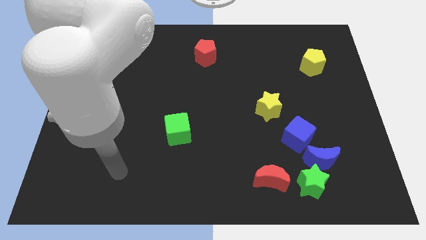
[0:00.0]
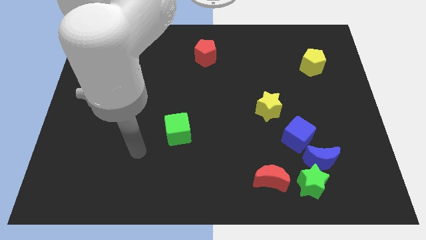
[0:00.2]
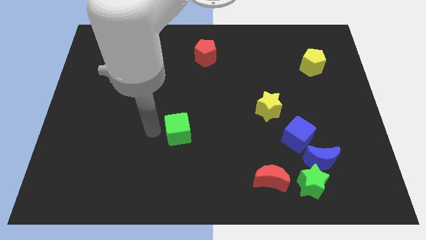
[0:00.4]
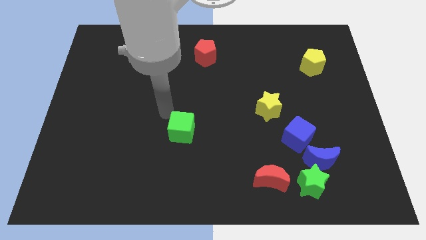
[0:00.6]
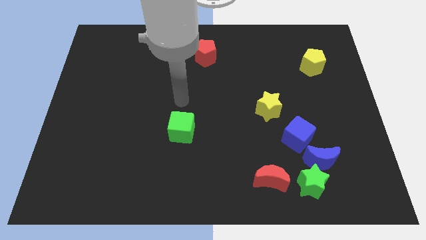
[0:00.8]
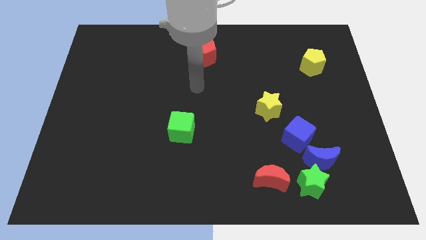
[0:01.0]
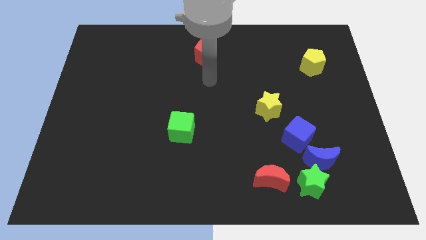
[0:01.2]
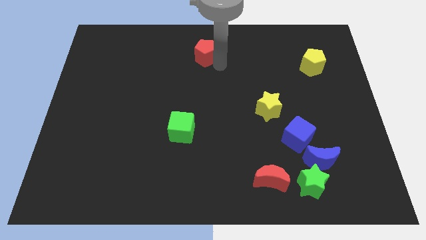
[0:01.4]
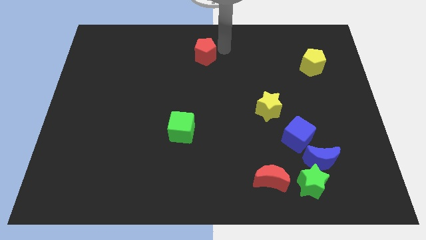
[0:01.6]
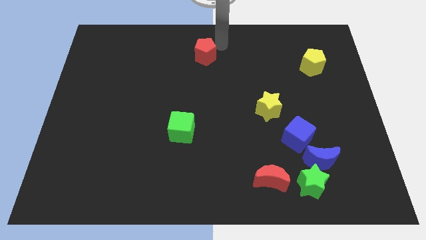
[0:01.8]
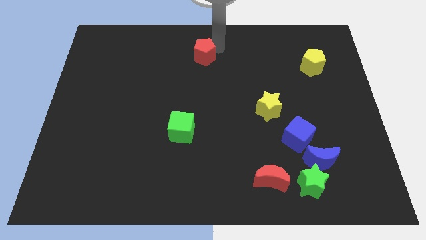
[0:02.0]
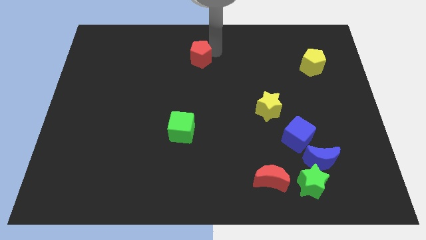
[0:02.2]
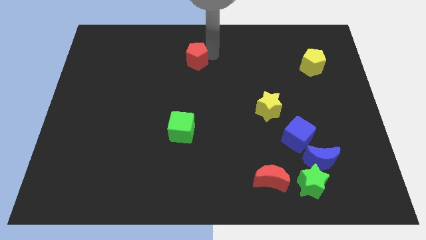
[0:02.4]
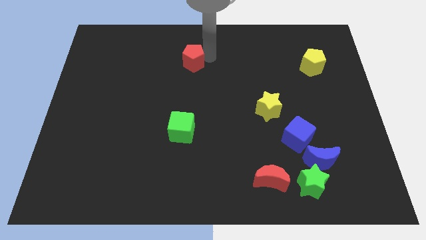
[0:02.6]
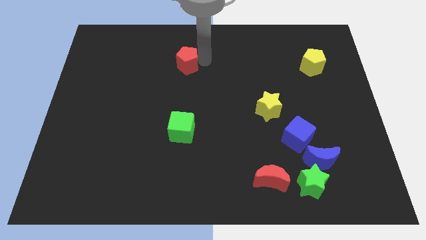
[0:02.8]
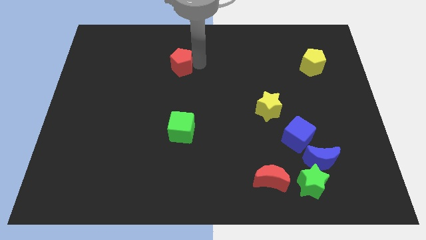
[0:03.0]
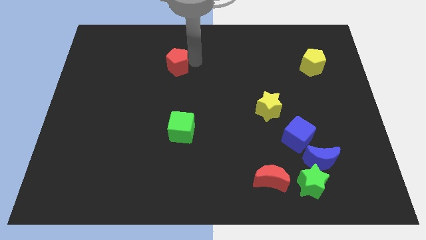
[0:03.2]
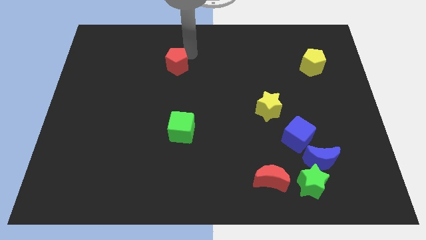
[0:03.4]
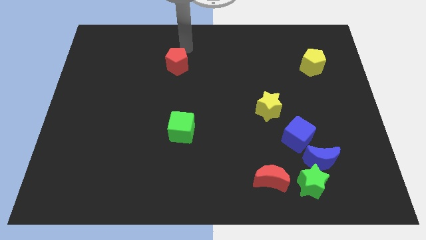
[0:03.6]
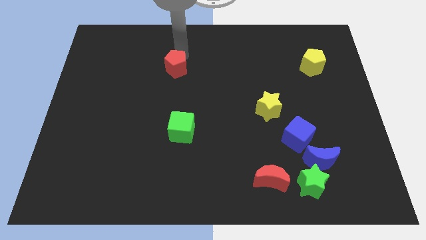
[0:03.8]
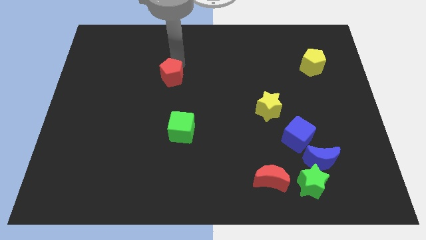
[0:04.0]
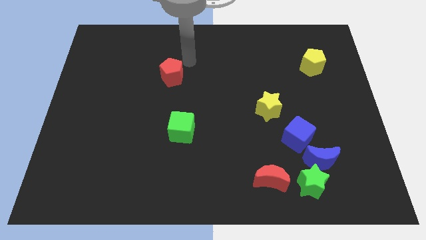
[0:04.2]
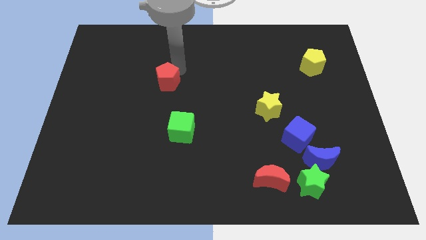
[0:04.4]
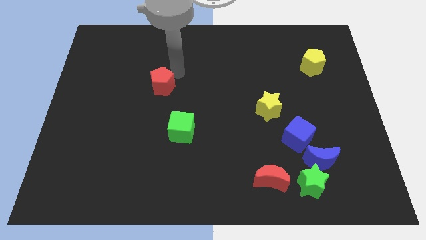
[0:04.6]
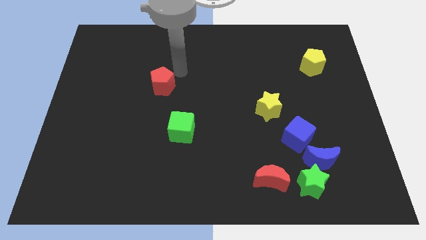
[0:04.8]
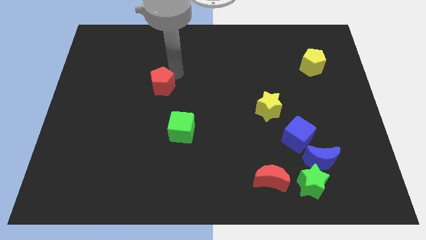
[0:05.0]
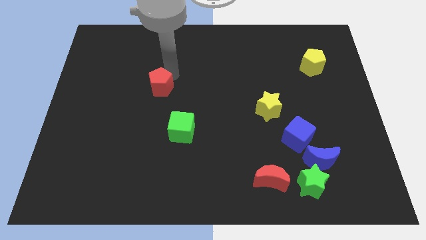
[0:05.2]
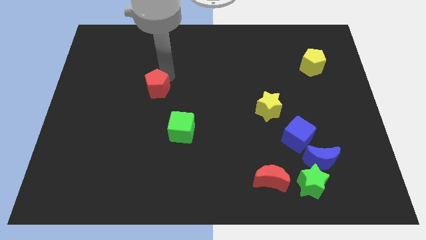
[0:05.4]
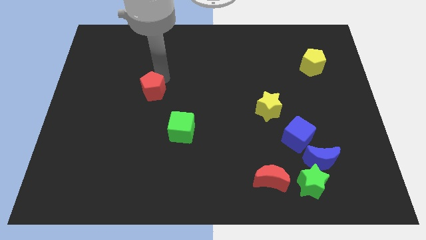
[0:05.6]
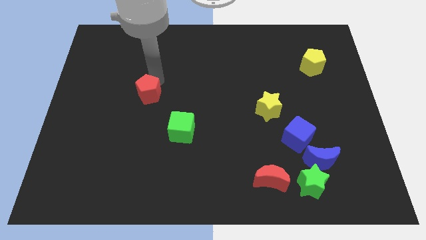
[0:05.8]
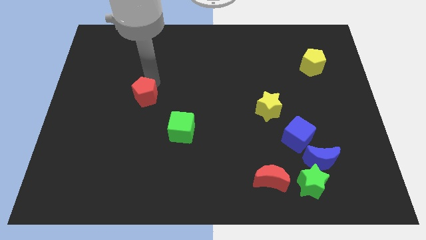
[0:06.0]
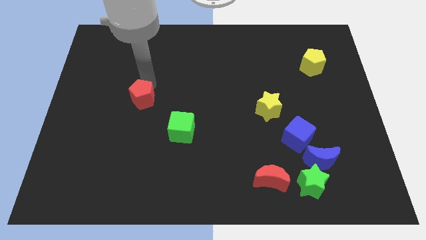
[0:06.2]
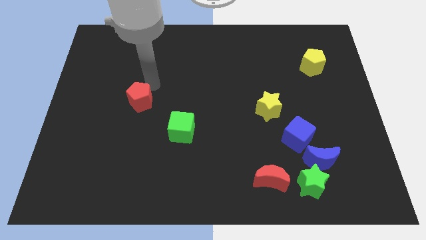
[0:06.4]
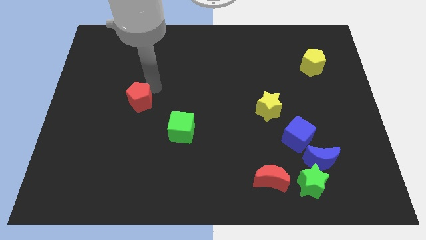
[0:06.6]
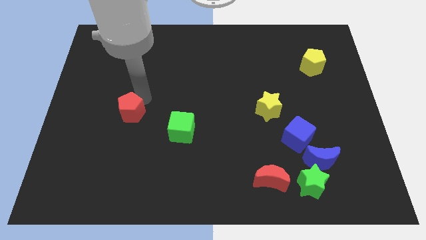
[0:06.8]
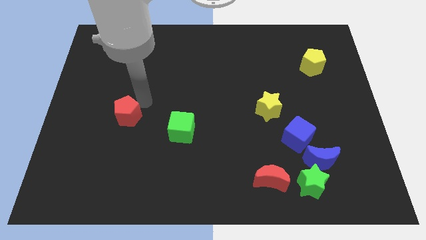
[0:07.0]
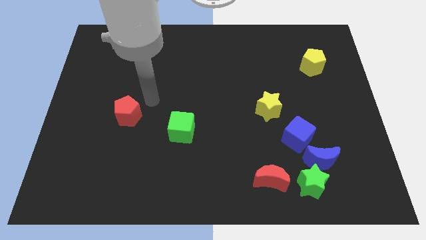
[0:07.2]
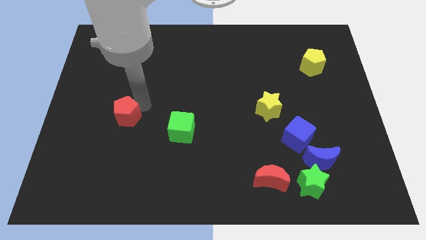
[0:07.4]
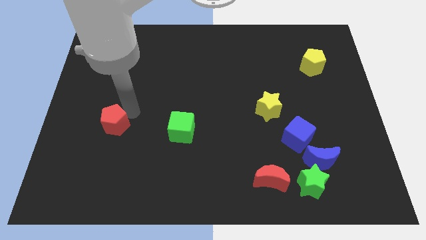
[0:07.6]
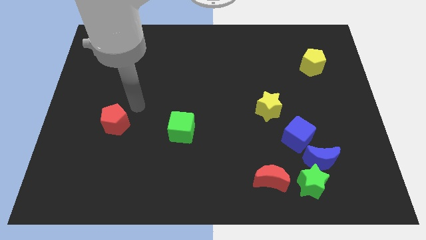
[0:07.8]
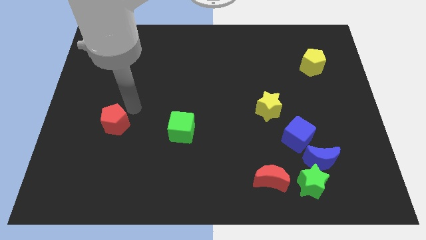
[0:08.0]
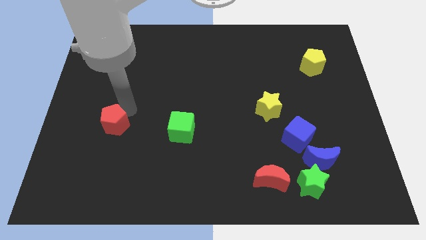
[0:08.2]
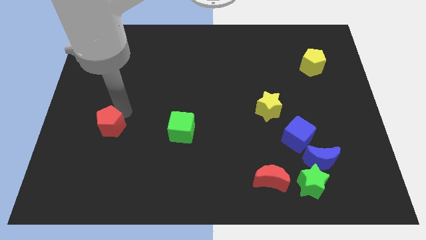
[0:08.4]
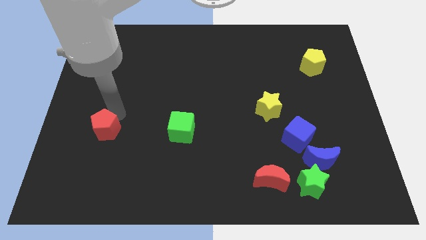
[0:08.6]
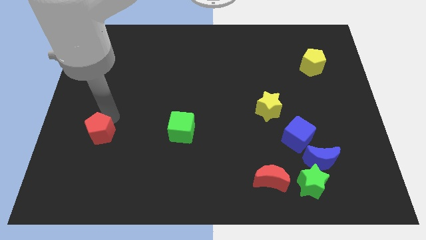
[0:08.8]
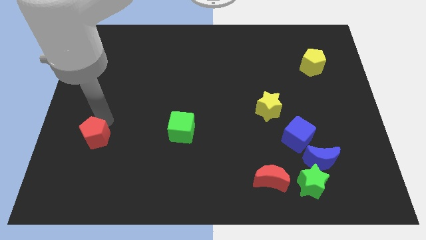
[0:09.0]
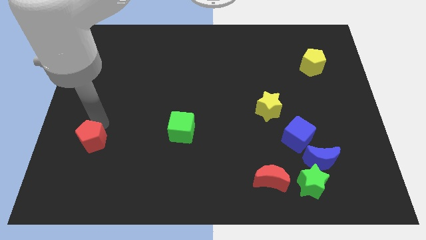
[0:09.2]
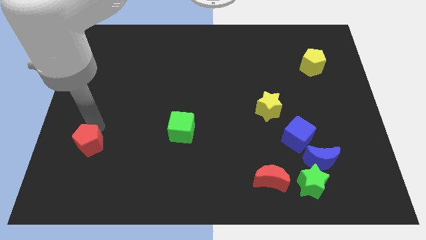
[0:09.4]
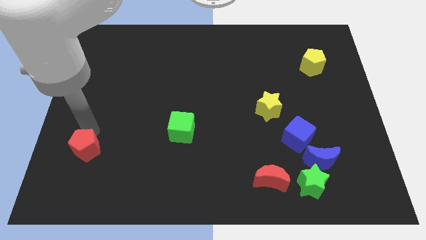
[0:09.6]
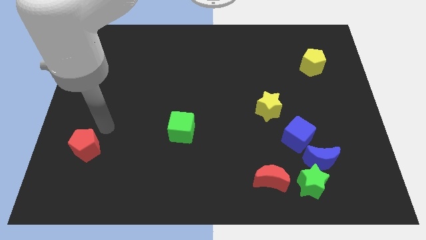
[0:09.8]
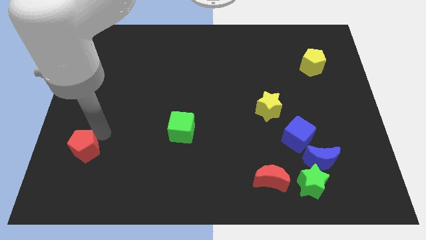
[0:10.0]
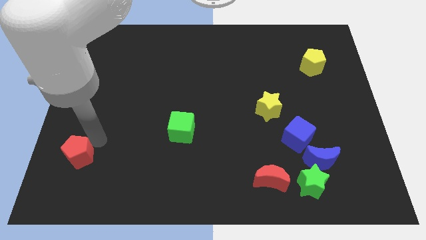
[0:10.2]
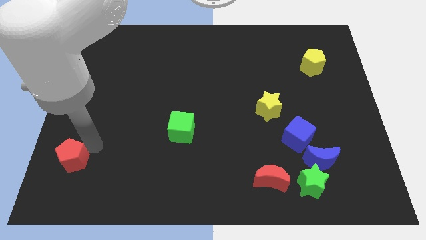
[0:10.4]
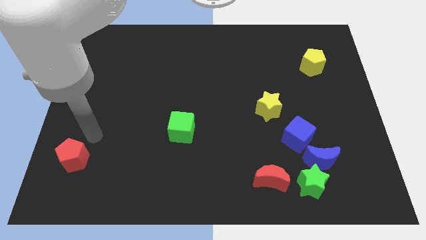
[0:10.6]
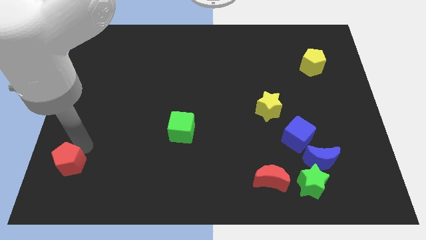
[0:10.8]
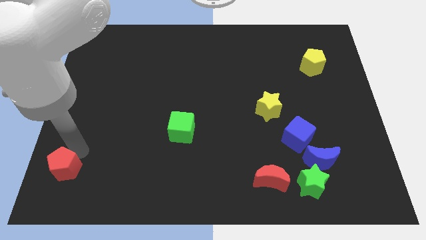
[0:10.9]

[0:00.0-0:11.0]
slide the red pentagon to the bottom left of the board
